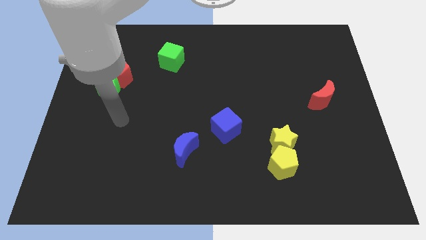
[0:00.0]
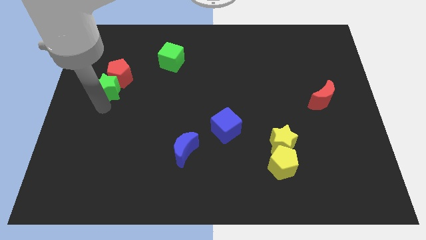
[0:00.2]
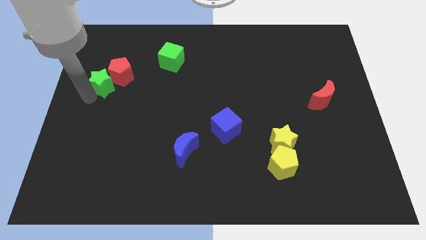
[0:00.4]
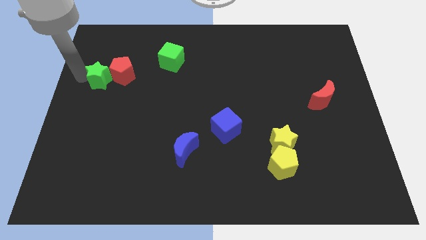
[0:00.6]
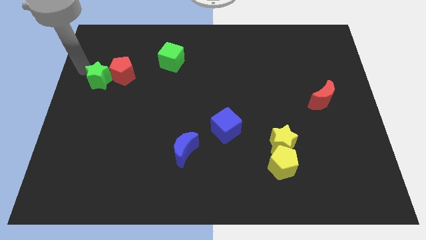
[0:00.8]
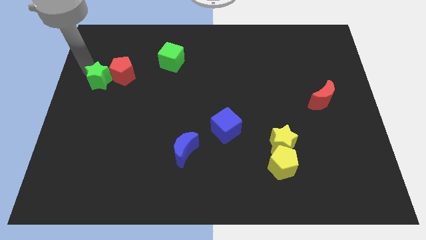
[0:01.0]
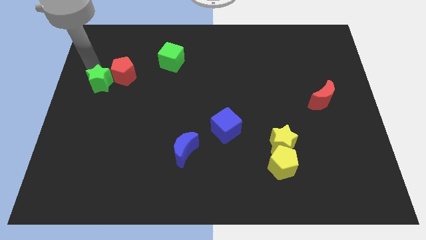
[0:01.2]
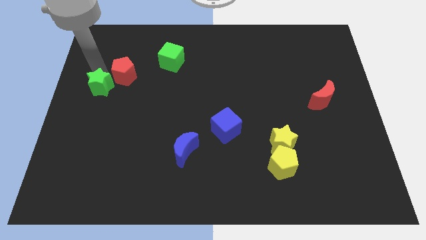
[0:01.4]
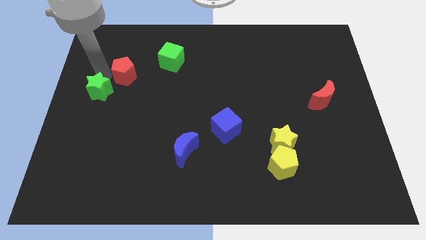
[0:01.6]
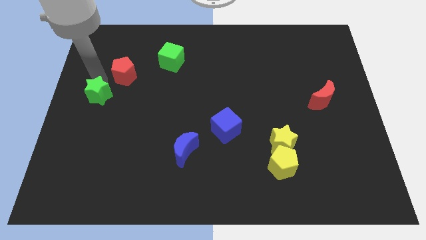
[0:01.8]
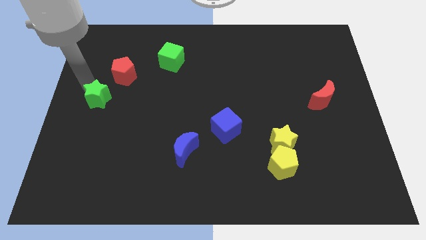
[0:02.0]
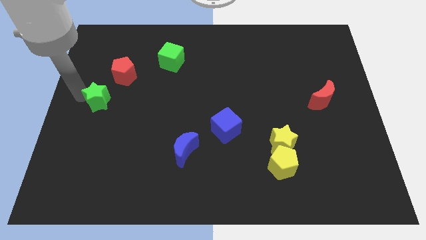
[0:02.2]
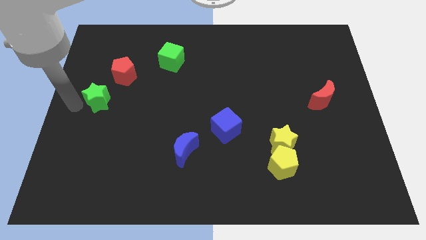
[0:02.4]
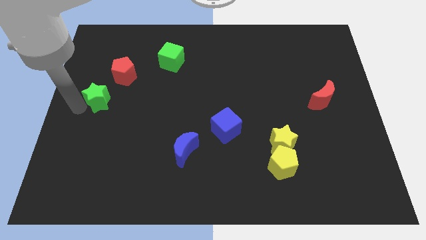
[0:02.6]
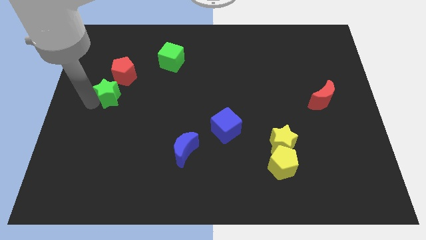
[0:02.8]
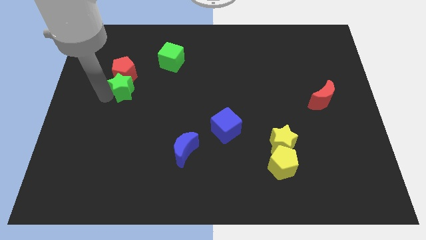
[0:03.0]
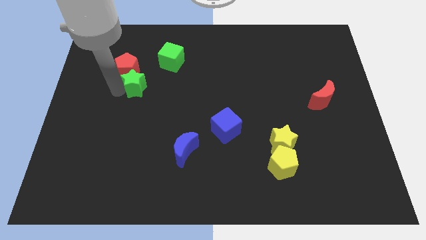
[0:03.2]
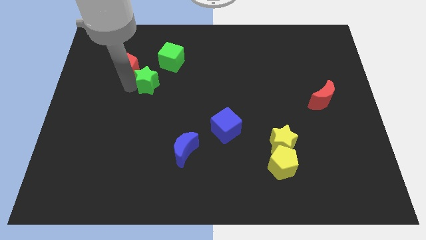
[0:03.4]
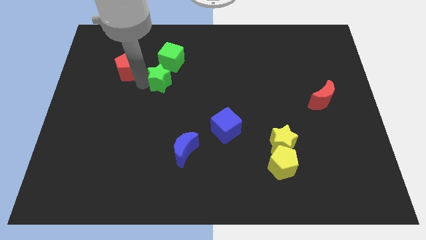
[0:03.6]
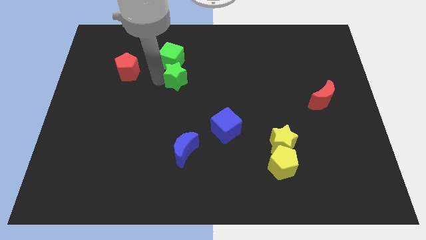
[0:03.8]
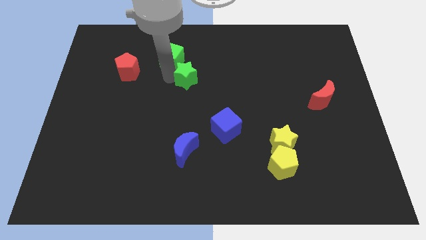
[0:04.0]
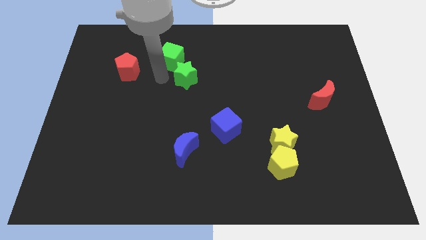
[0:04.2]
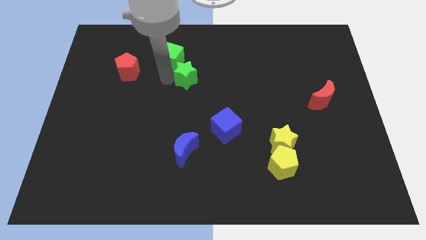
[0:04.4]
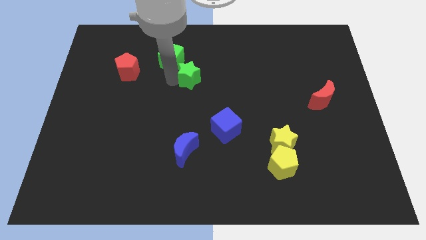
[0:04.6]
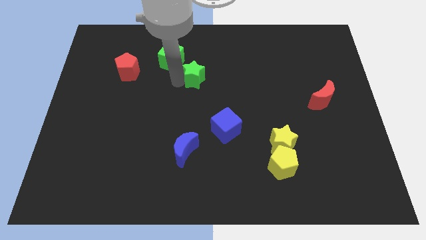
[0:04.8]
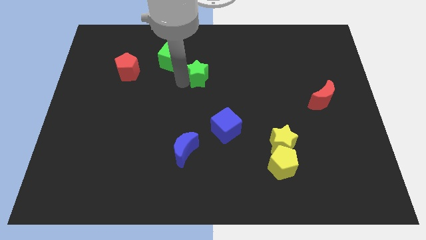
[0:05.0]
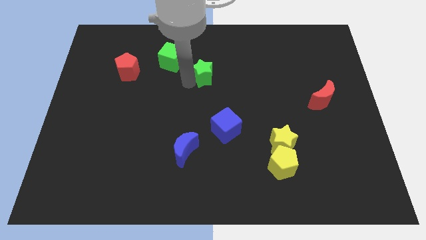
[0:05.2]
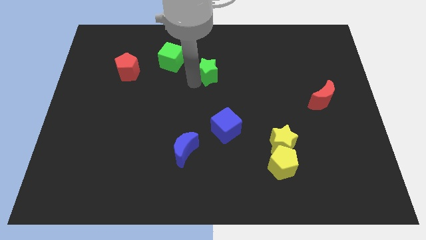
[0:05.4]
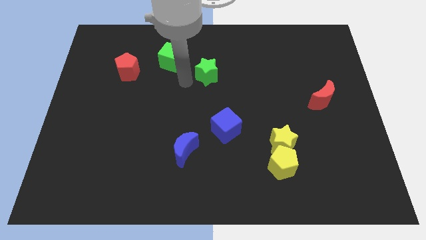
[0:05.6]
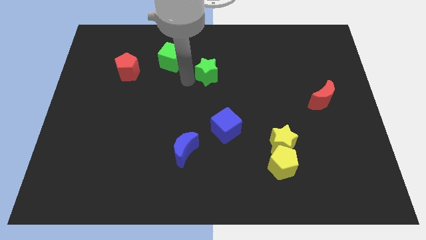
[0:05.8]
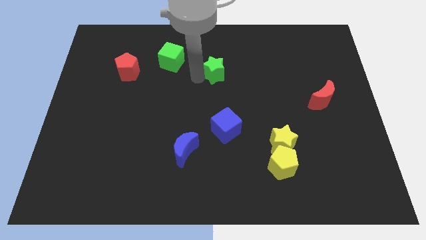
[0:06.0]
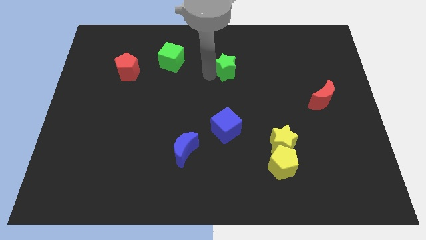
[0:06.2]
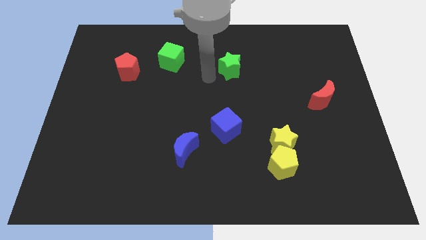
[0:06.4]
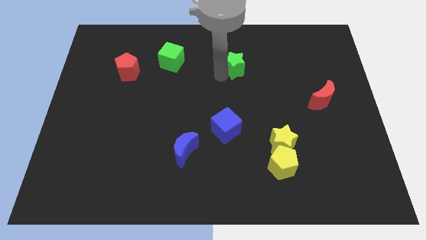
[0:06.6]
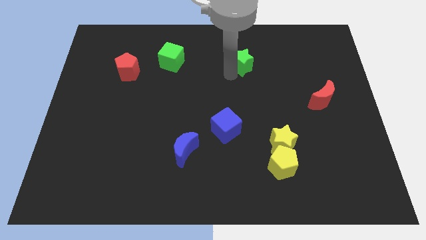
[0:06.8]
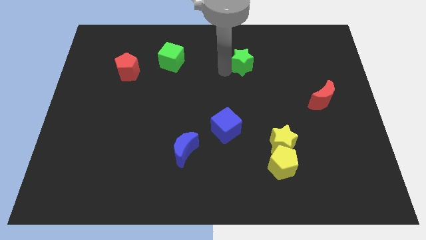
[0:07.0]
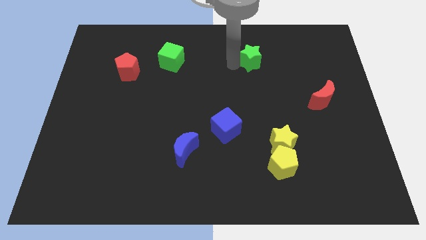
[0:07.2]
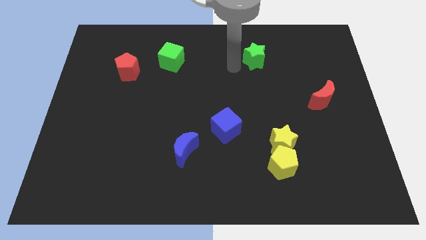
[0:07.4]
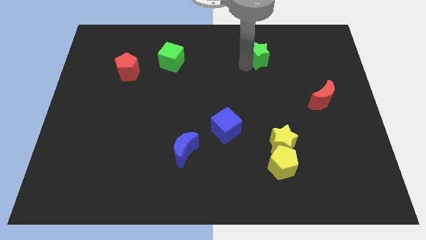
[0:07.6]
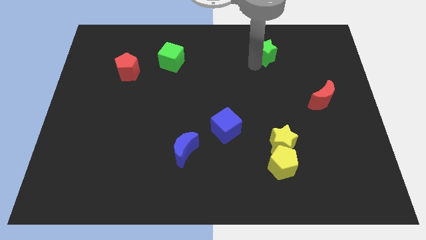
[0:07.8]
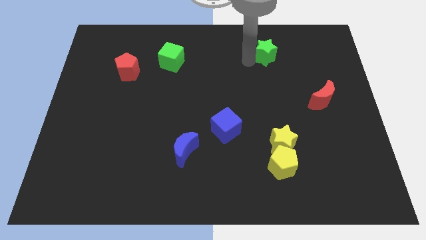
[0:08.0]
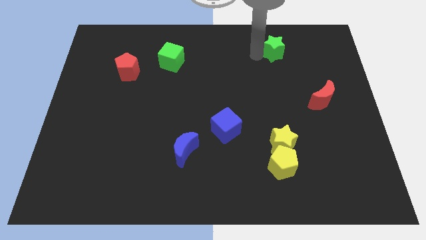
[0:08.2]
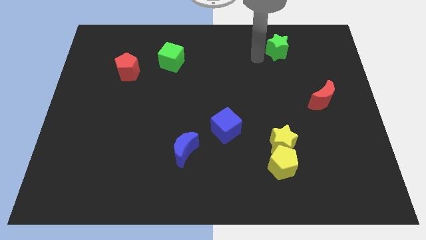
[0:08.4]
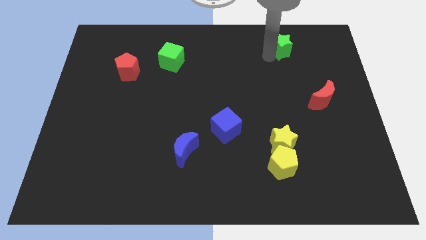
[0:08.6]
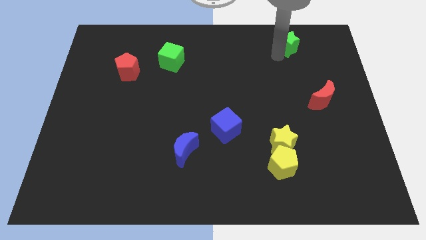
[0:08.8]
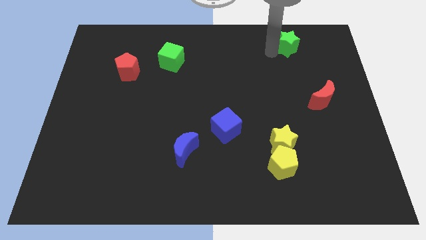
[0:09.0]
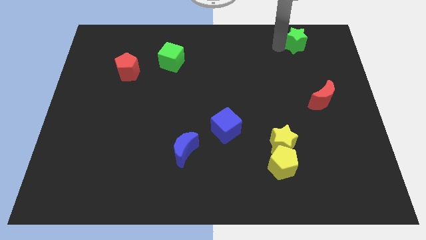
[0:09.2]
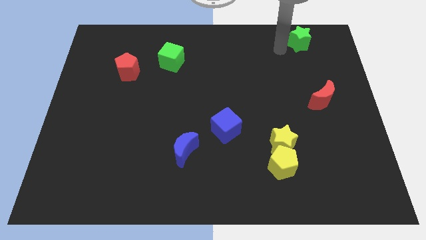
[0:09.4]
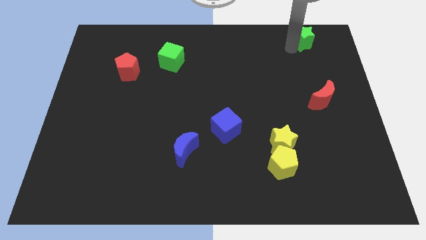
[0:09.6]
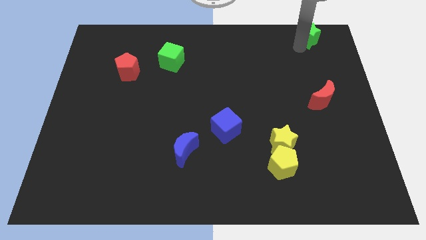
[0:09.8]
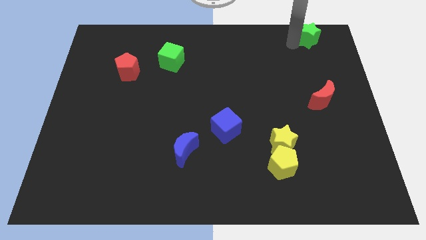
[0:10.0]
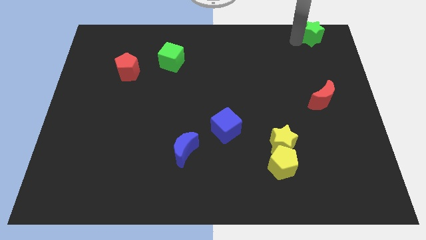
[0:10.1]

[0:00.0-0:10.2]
slide the green star to the top right
